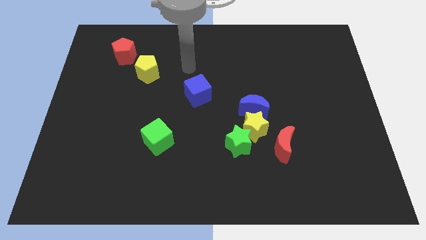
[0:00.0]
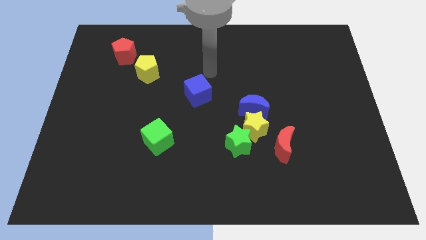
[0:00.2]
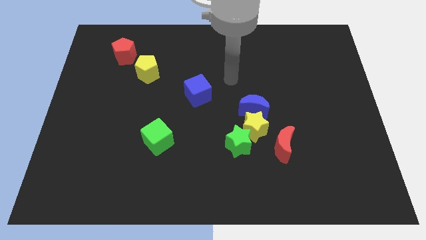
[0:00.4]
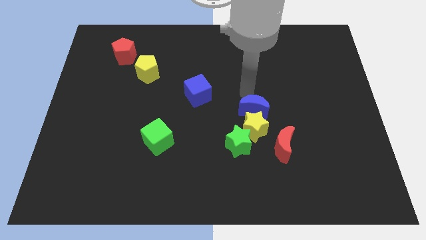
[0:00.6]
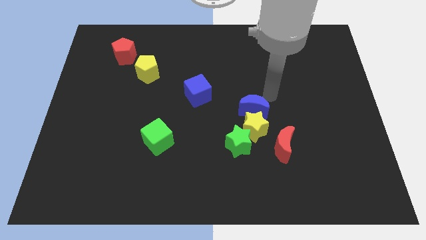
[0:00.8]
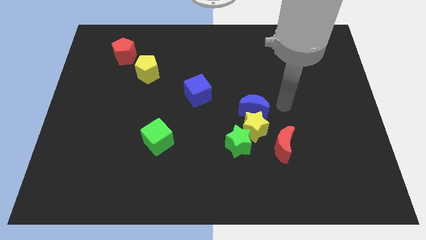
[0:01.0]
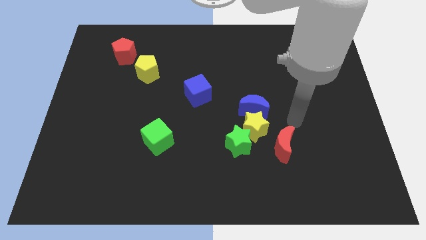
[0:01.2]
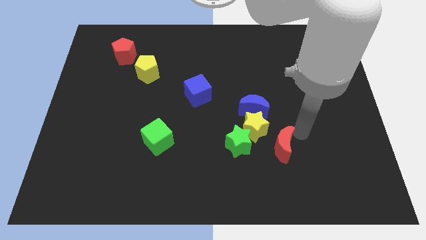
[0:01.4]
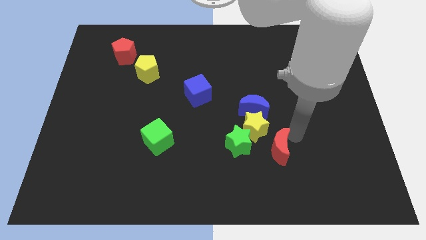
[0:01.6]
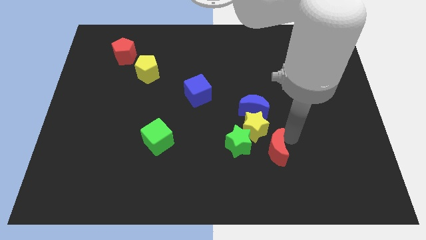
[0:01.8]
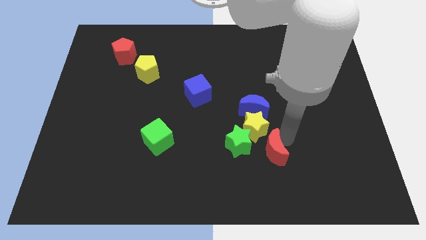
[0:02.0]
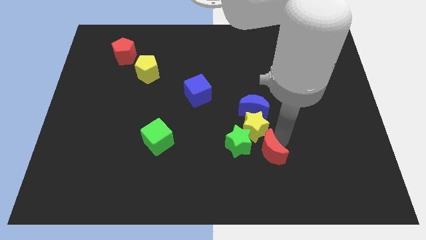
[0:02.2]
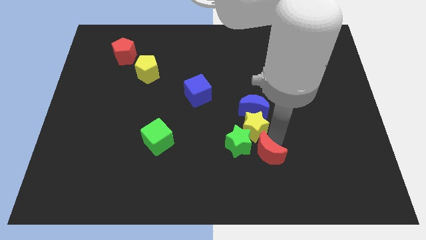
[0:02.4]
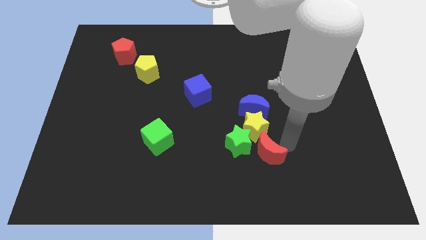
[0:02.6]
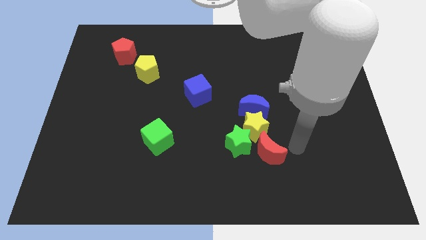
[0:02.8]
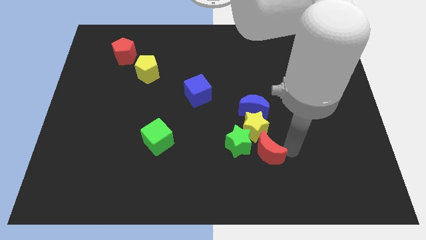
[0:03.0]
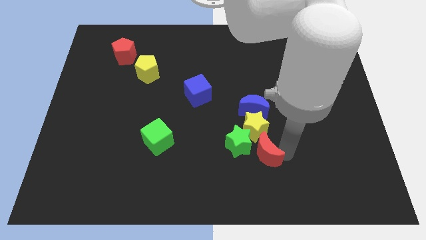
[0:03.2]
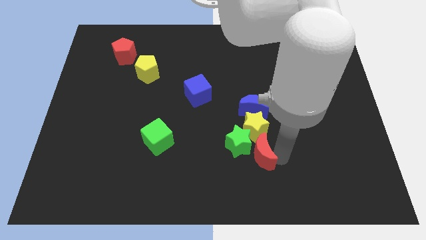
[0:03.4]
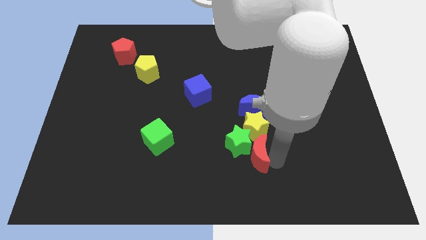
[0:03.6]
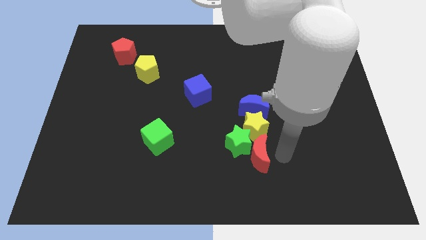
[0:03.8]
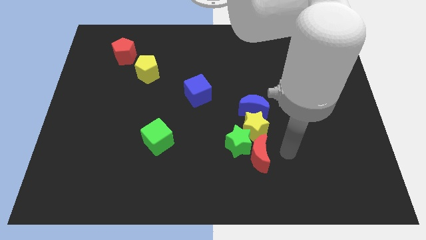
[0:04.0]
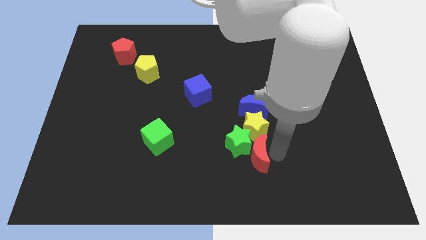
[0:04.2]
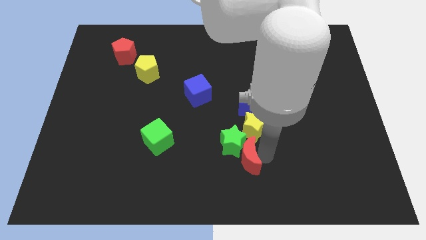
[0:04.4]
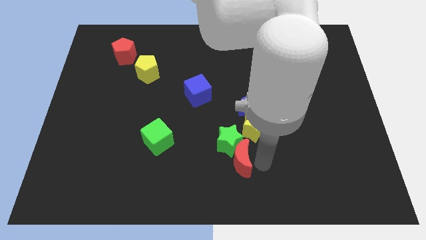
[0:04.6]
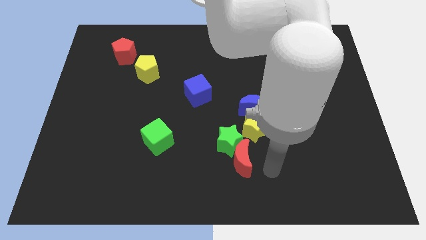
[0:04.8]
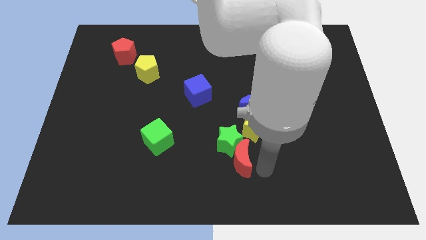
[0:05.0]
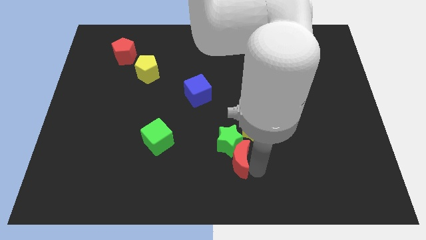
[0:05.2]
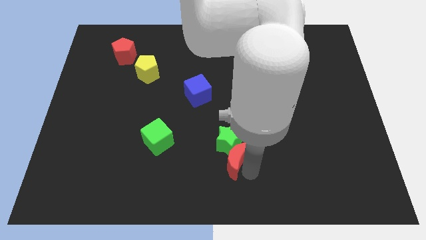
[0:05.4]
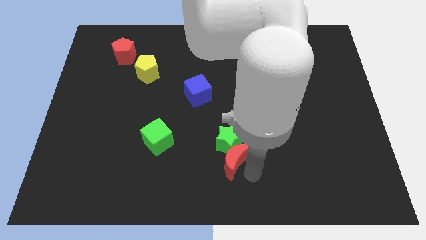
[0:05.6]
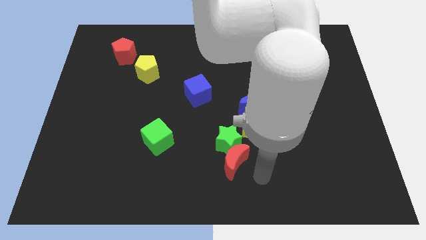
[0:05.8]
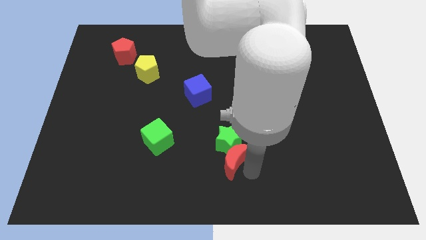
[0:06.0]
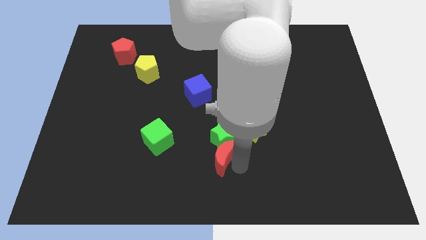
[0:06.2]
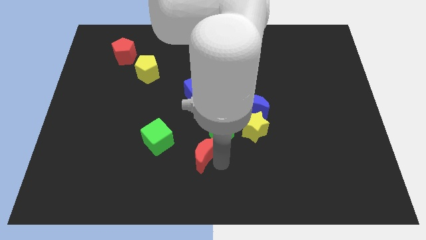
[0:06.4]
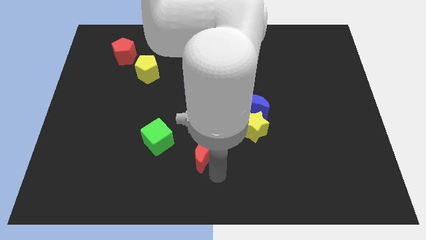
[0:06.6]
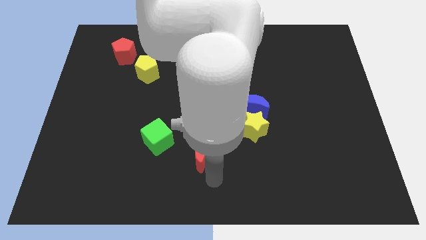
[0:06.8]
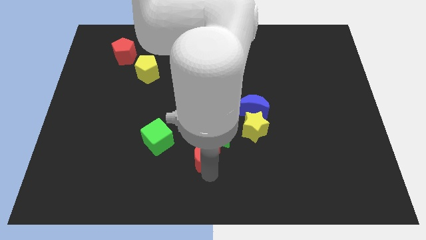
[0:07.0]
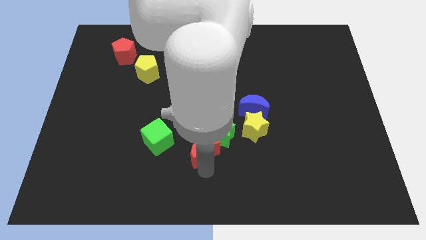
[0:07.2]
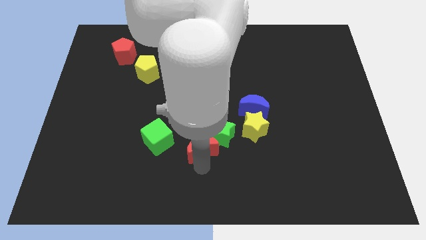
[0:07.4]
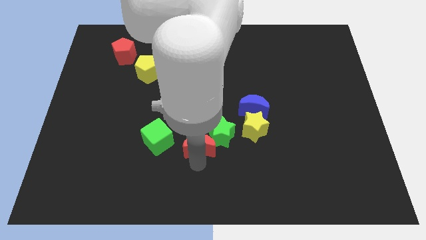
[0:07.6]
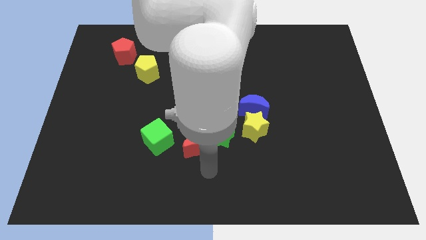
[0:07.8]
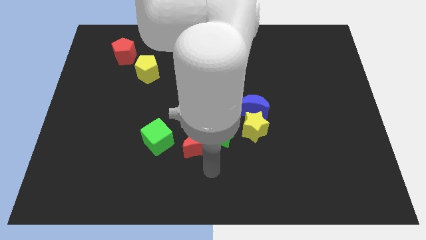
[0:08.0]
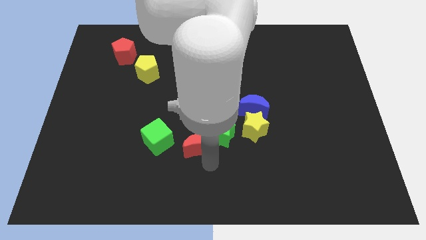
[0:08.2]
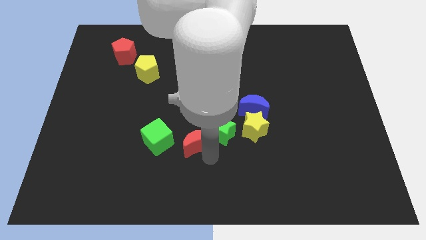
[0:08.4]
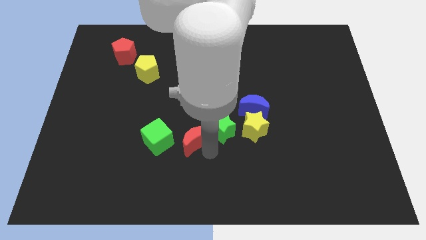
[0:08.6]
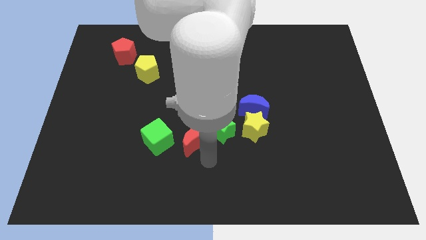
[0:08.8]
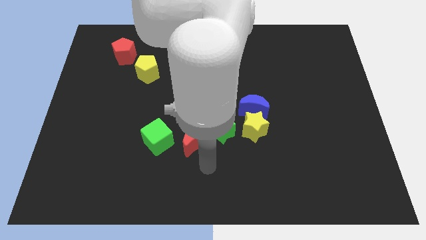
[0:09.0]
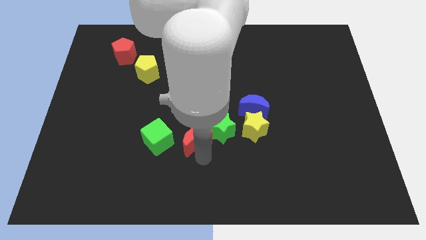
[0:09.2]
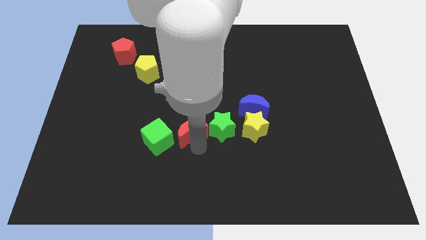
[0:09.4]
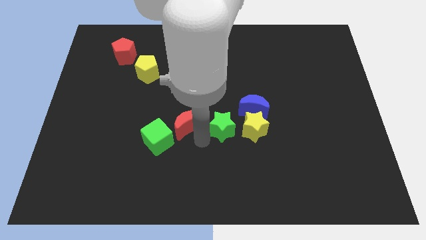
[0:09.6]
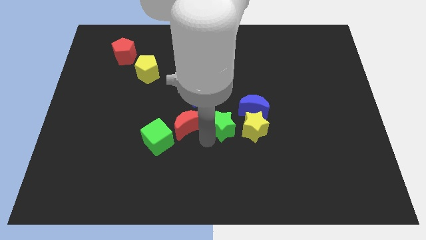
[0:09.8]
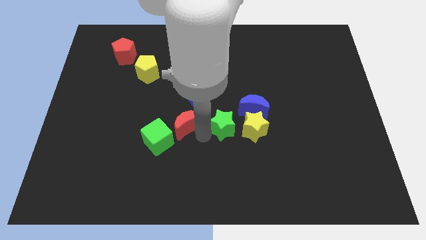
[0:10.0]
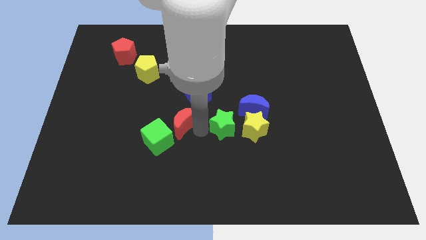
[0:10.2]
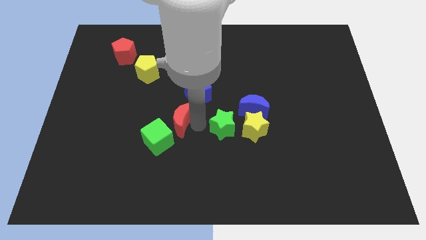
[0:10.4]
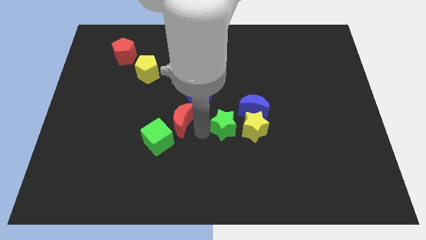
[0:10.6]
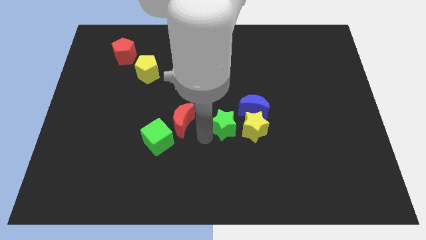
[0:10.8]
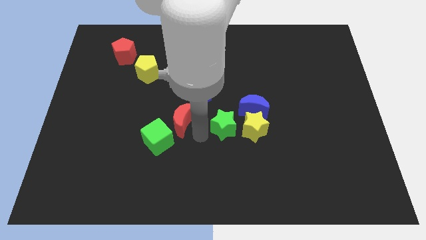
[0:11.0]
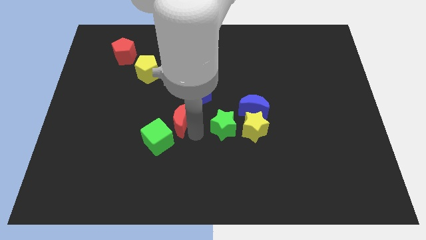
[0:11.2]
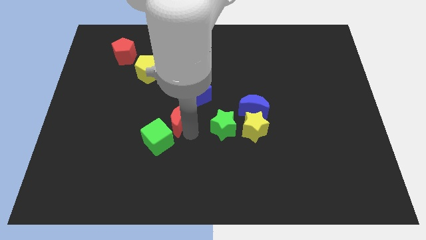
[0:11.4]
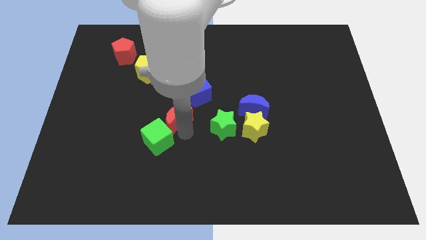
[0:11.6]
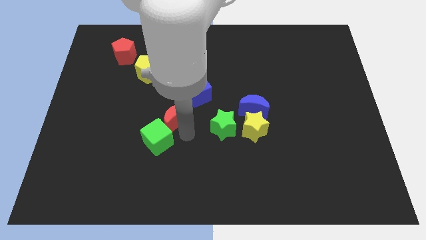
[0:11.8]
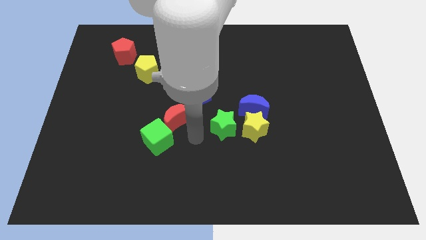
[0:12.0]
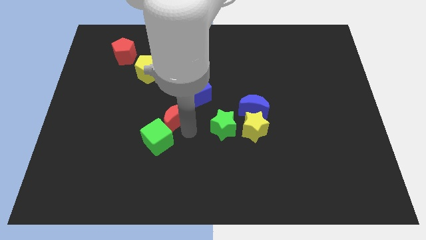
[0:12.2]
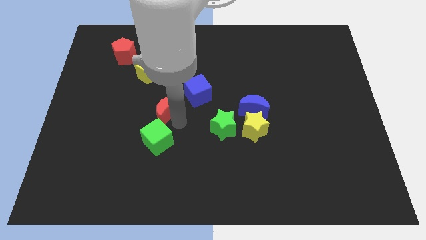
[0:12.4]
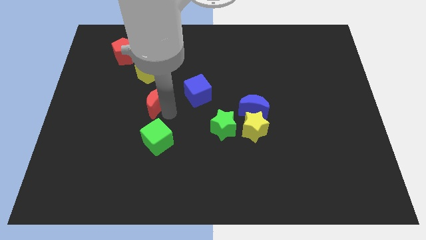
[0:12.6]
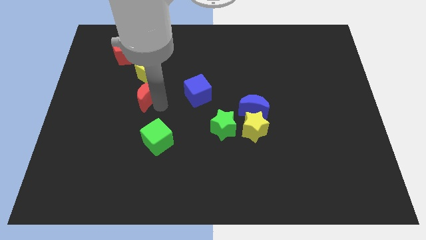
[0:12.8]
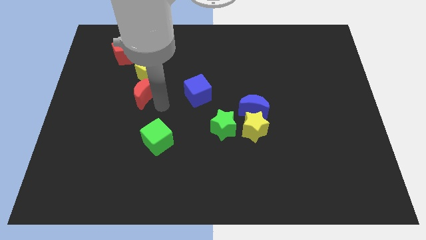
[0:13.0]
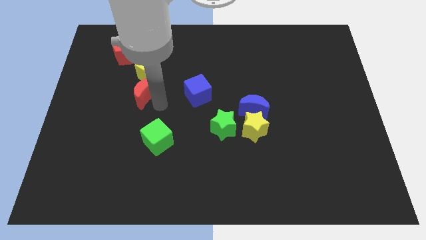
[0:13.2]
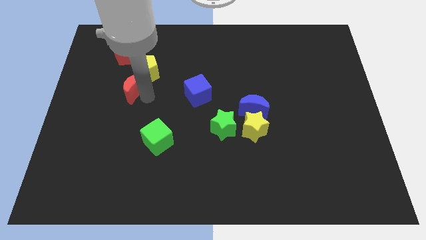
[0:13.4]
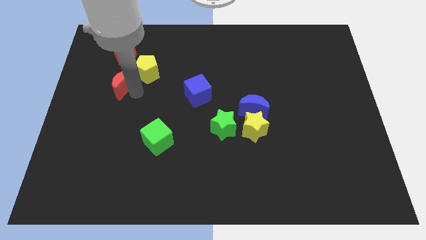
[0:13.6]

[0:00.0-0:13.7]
slide the red moon just left of the yellow pentagon

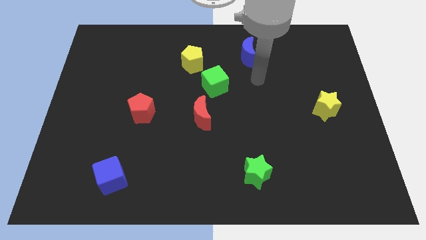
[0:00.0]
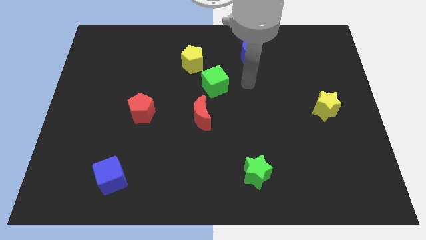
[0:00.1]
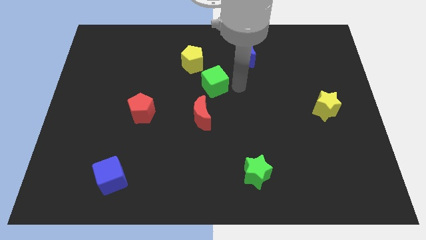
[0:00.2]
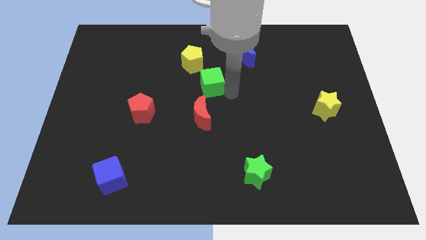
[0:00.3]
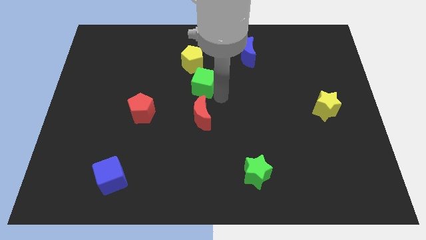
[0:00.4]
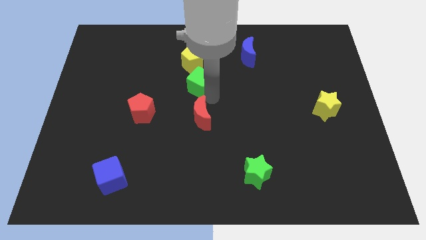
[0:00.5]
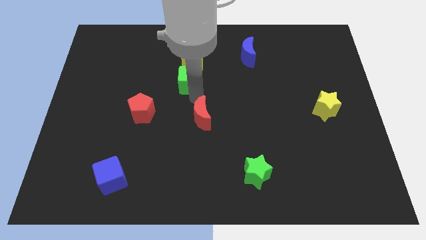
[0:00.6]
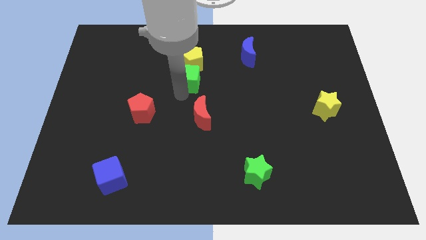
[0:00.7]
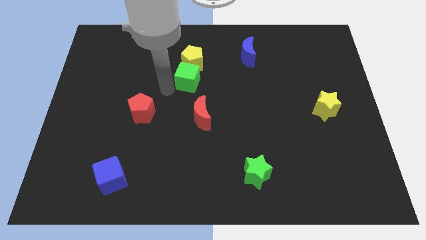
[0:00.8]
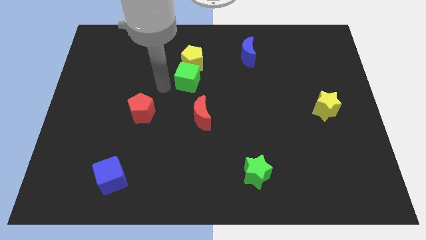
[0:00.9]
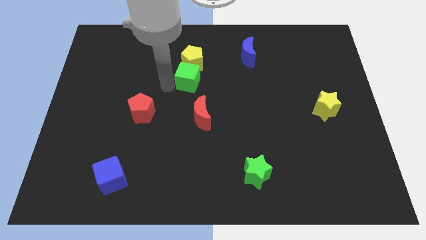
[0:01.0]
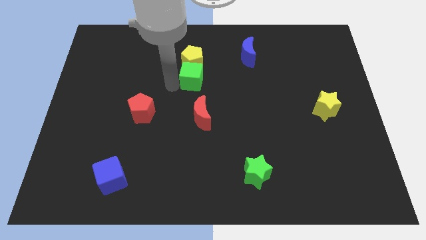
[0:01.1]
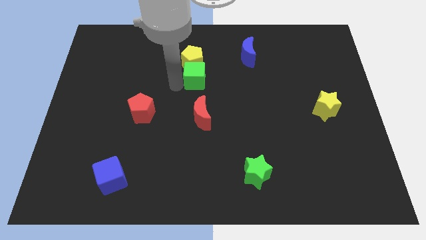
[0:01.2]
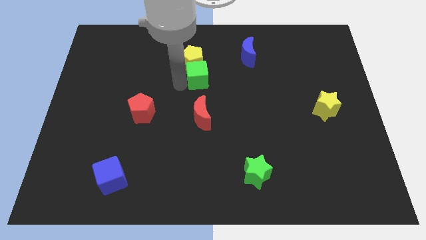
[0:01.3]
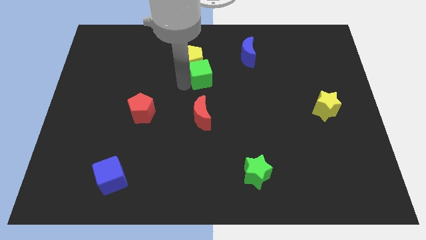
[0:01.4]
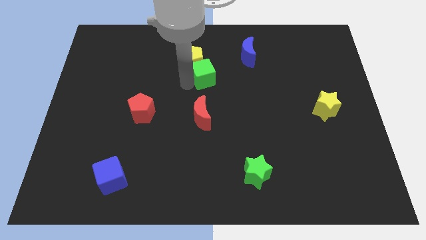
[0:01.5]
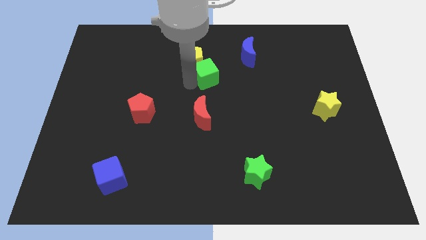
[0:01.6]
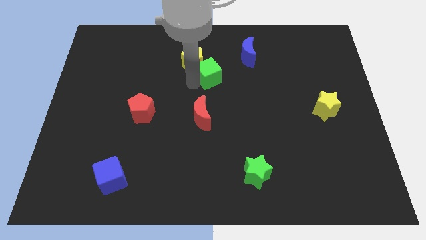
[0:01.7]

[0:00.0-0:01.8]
put the green cube to the bottom left side of the blue moon
